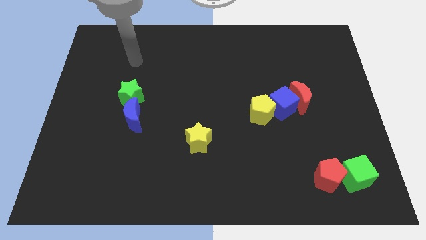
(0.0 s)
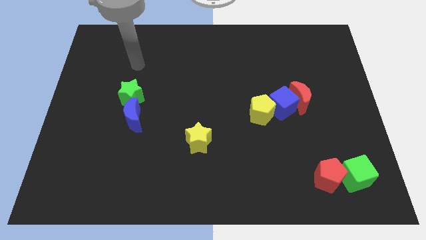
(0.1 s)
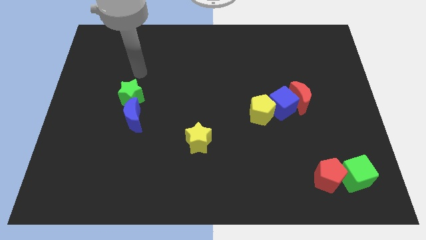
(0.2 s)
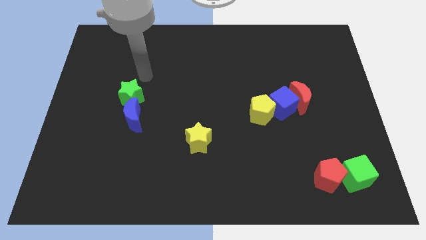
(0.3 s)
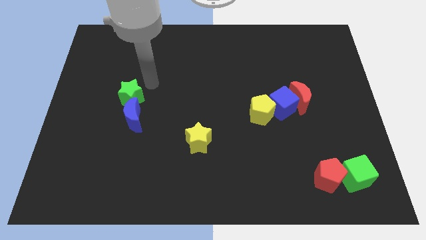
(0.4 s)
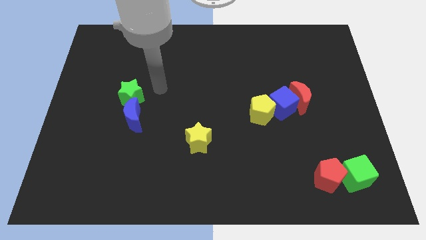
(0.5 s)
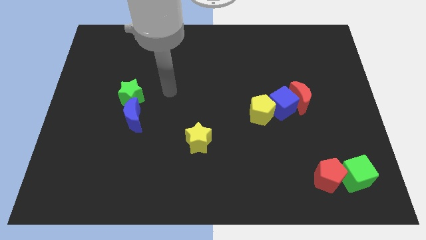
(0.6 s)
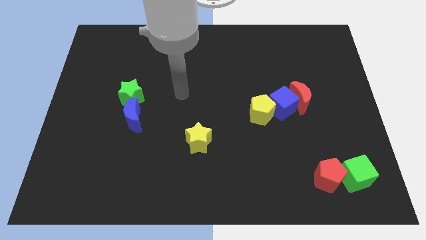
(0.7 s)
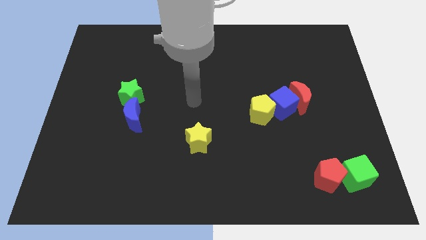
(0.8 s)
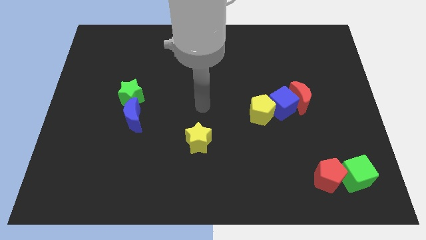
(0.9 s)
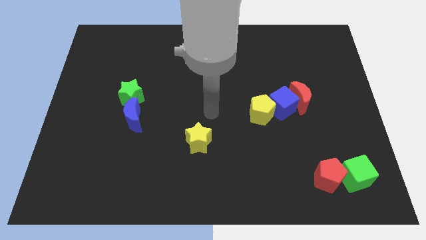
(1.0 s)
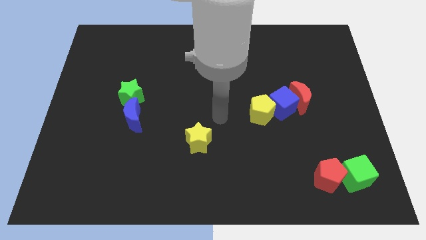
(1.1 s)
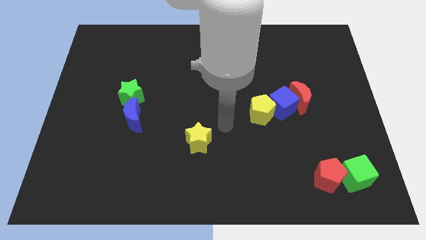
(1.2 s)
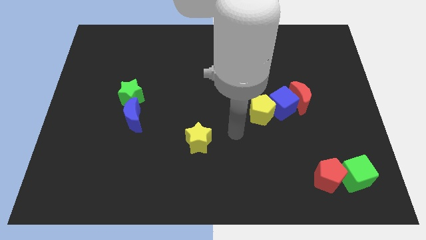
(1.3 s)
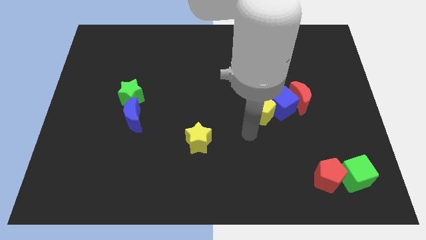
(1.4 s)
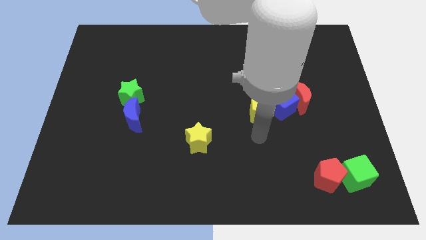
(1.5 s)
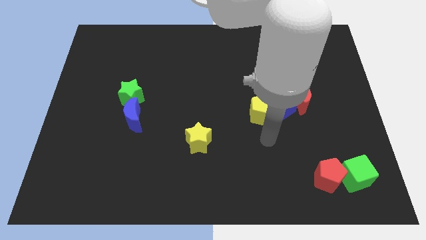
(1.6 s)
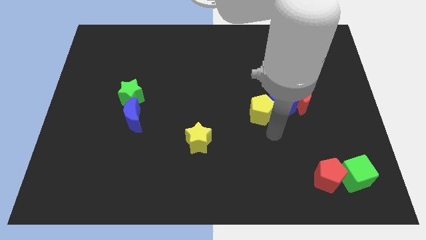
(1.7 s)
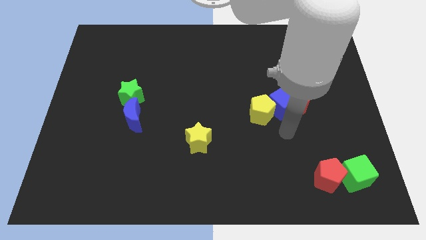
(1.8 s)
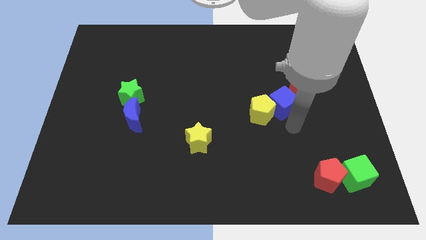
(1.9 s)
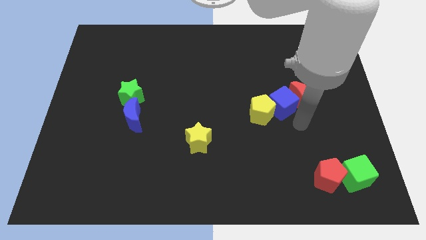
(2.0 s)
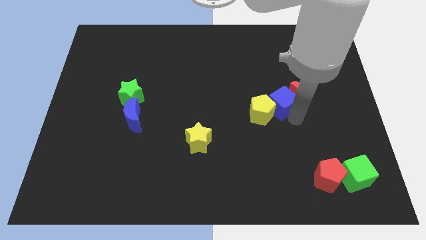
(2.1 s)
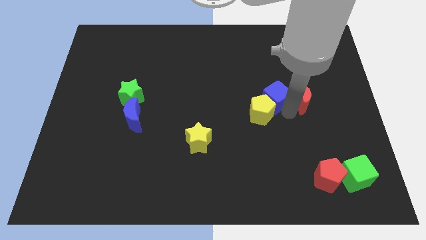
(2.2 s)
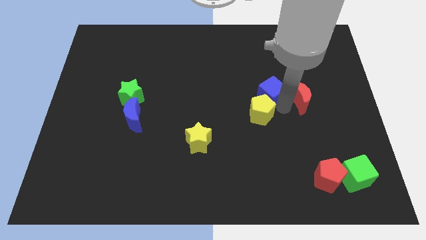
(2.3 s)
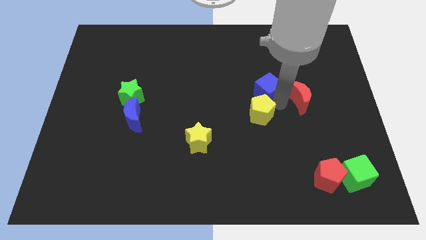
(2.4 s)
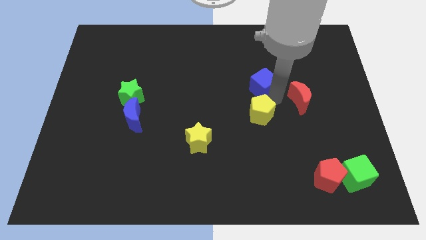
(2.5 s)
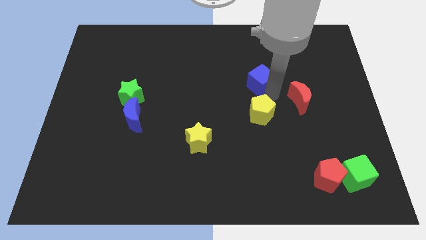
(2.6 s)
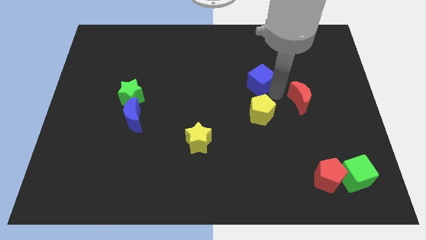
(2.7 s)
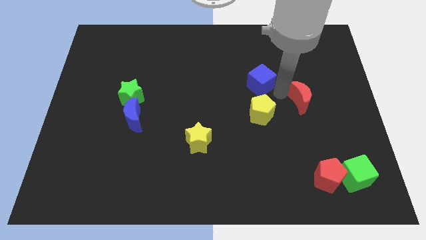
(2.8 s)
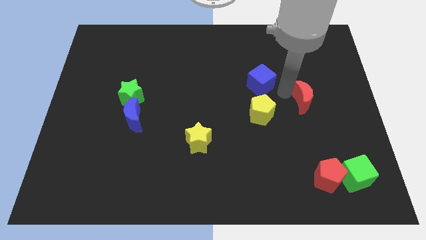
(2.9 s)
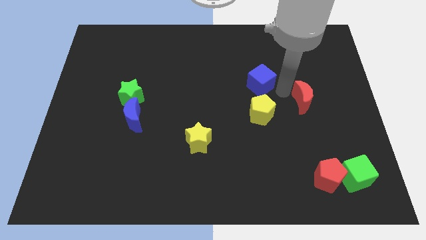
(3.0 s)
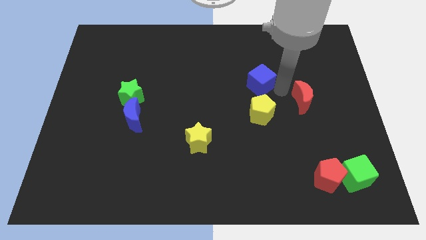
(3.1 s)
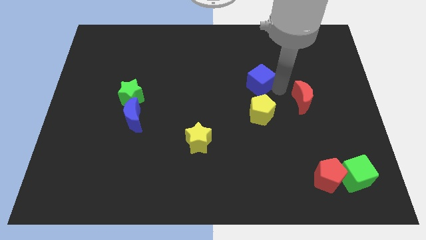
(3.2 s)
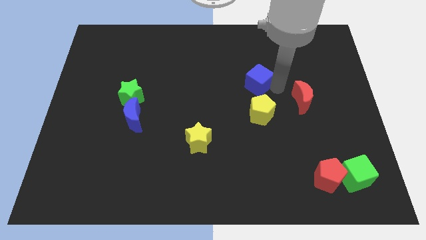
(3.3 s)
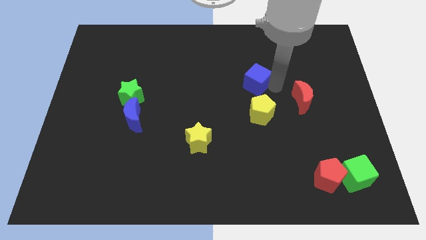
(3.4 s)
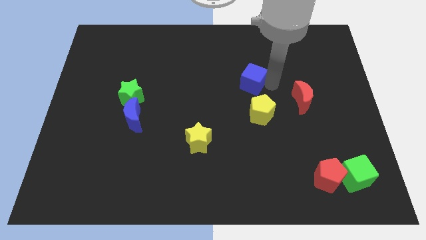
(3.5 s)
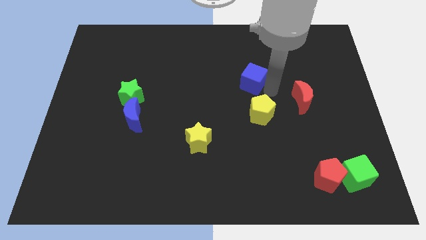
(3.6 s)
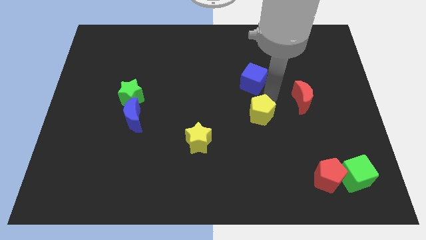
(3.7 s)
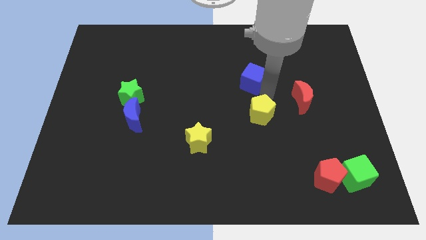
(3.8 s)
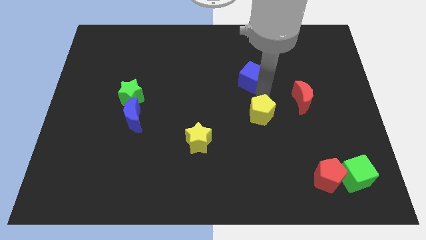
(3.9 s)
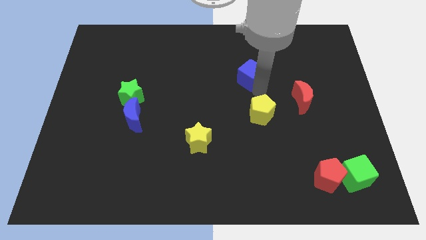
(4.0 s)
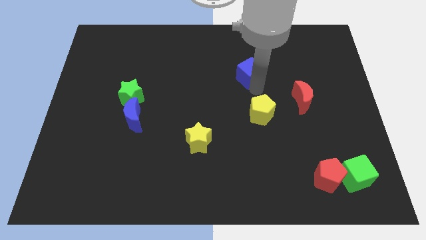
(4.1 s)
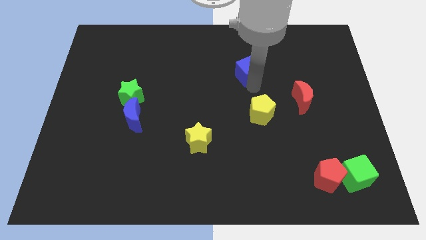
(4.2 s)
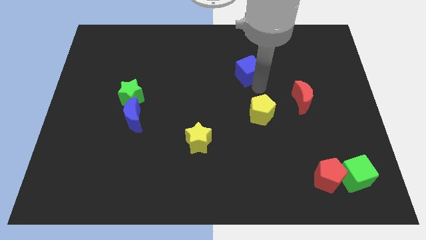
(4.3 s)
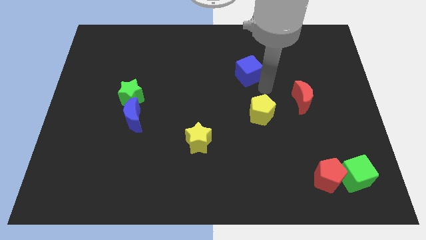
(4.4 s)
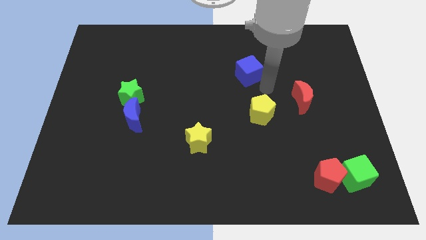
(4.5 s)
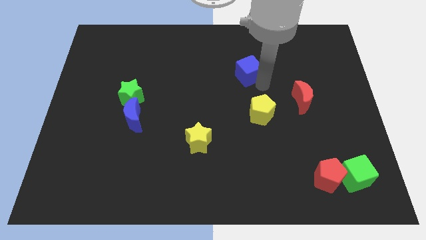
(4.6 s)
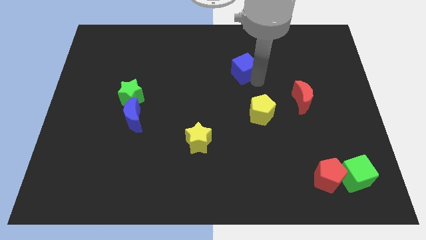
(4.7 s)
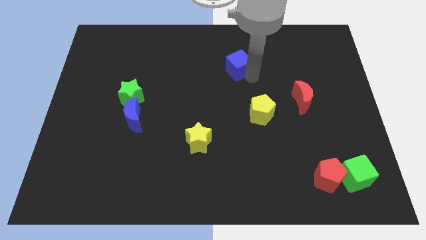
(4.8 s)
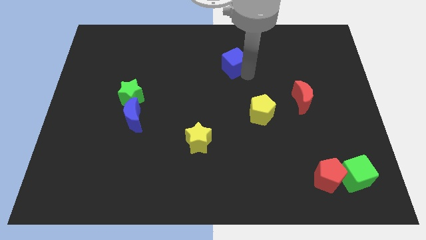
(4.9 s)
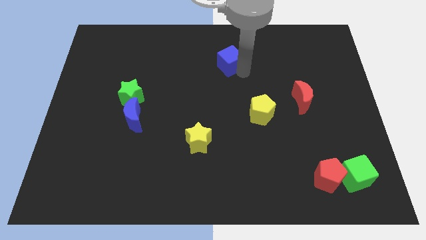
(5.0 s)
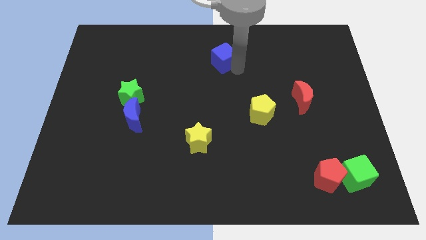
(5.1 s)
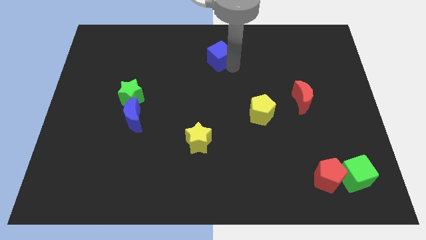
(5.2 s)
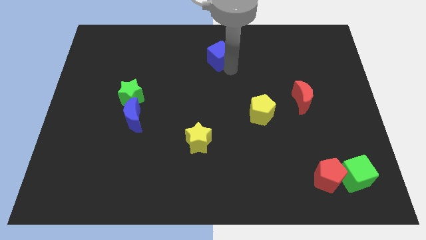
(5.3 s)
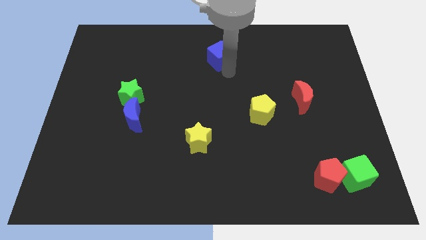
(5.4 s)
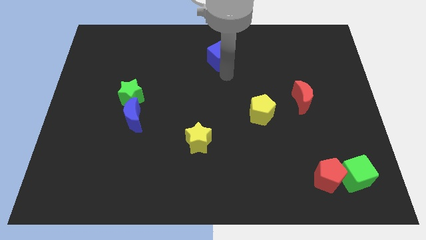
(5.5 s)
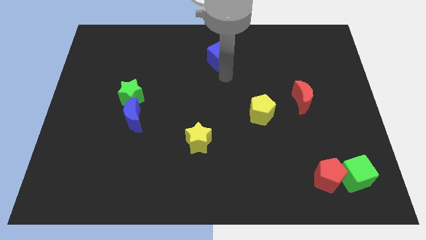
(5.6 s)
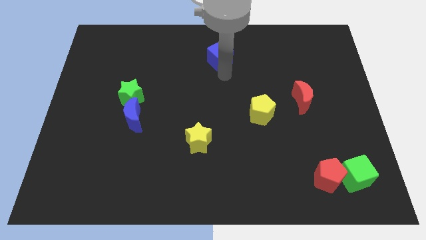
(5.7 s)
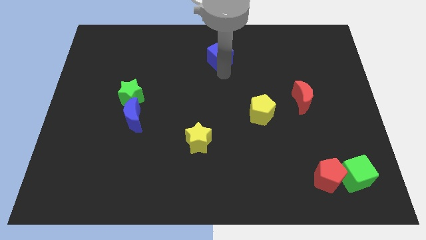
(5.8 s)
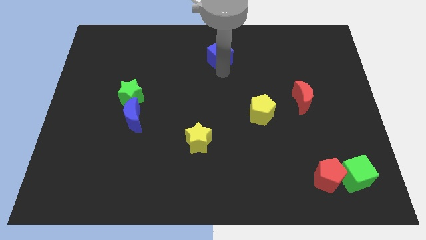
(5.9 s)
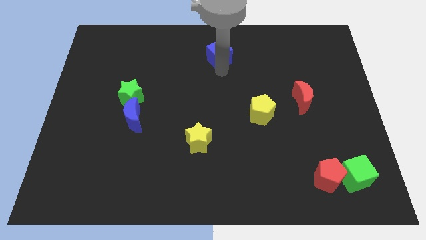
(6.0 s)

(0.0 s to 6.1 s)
push the blue cube to the top

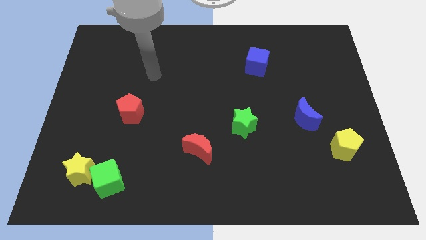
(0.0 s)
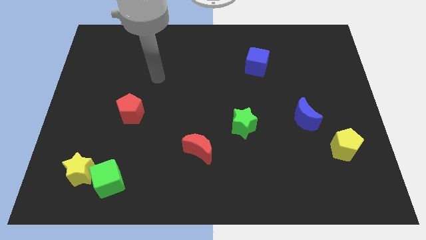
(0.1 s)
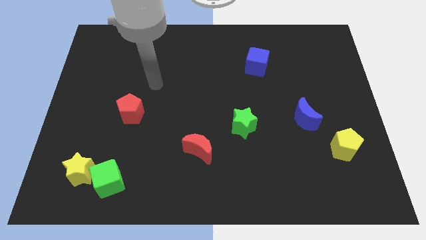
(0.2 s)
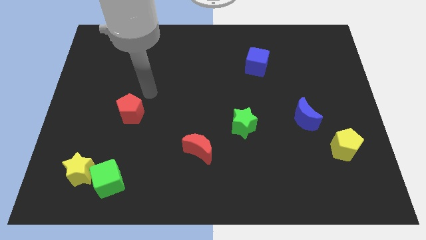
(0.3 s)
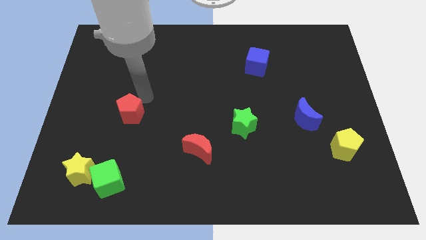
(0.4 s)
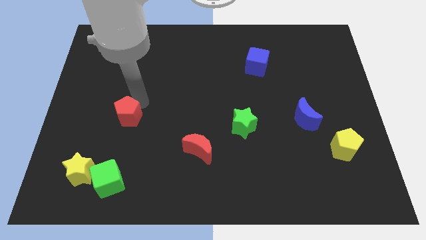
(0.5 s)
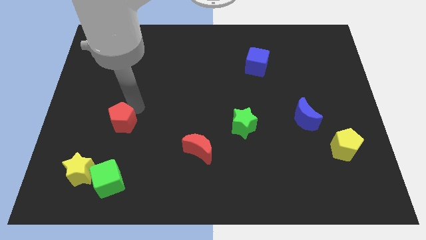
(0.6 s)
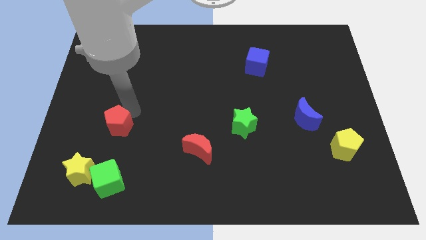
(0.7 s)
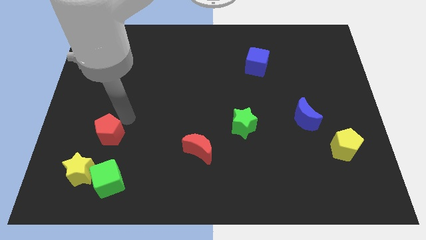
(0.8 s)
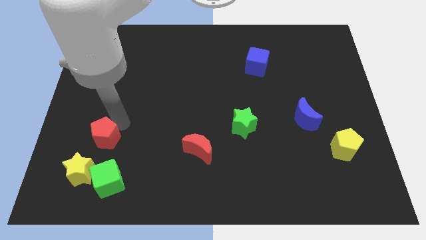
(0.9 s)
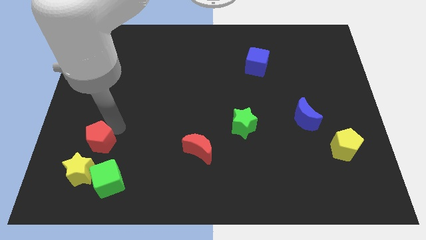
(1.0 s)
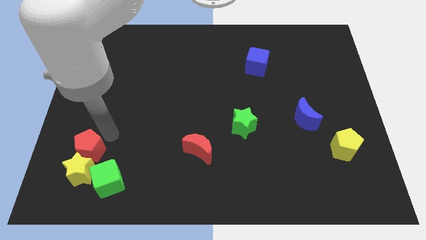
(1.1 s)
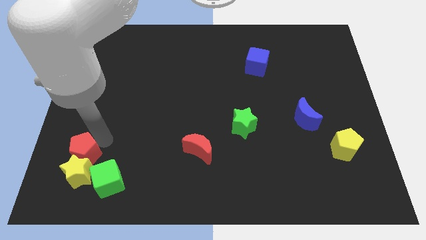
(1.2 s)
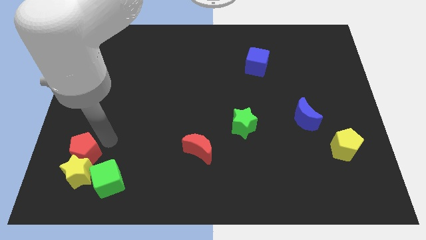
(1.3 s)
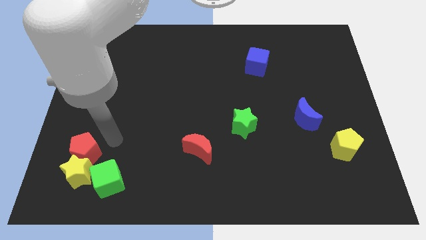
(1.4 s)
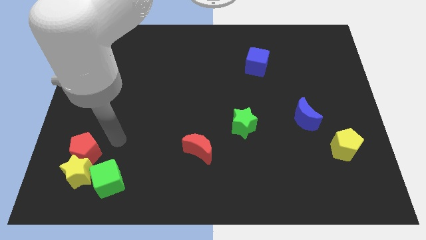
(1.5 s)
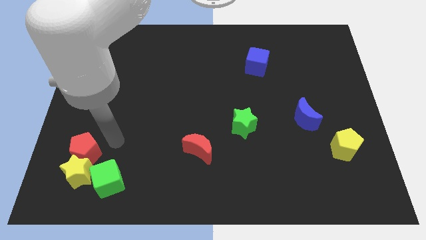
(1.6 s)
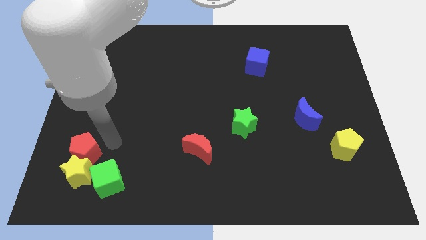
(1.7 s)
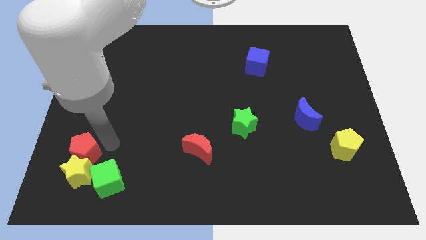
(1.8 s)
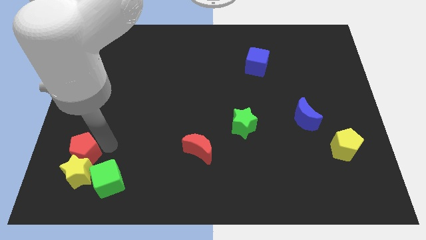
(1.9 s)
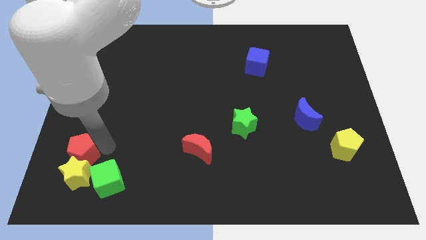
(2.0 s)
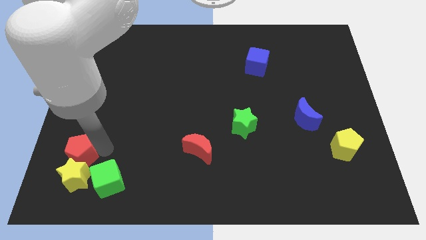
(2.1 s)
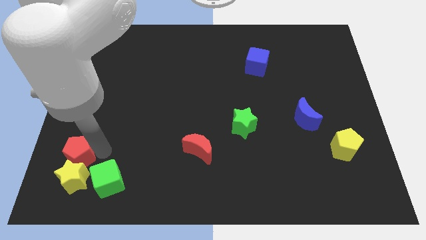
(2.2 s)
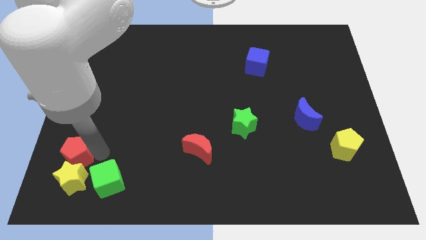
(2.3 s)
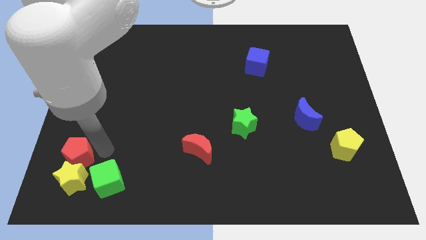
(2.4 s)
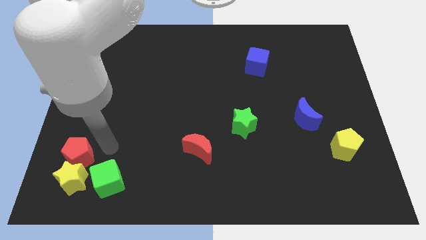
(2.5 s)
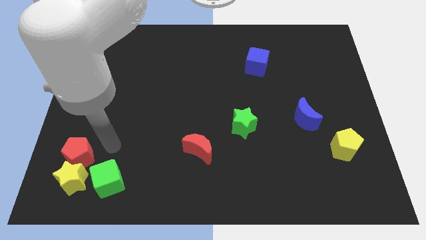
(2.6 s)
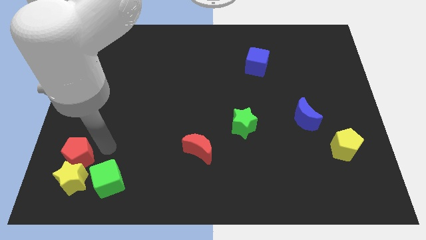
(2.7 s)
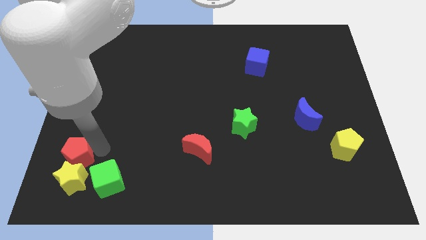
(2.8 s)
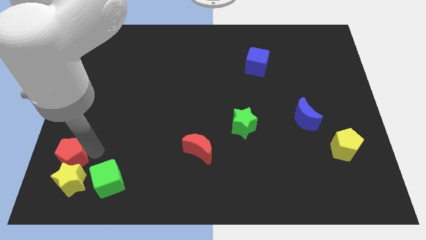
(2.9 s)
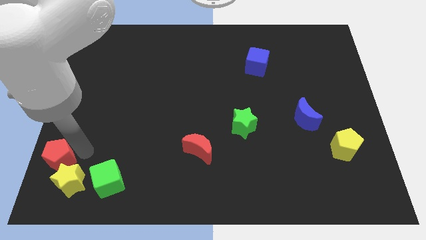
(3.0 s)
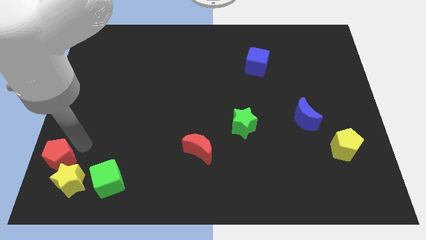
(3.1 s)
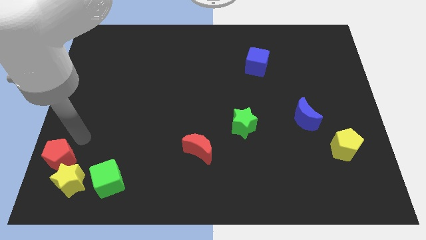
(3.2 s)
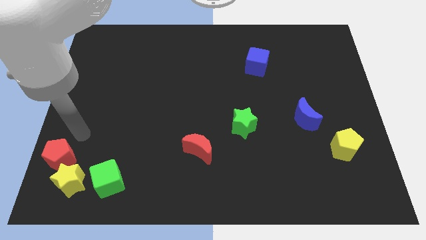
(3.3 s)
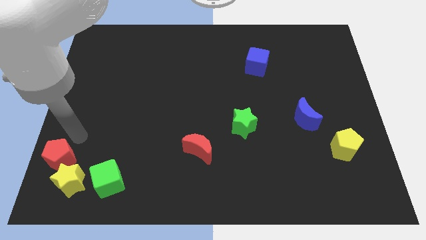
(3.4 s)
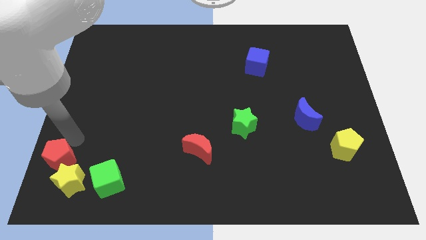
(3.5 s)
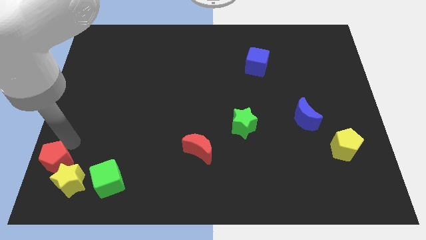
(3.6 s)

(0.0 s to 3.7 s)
put the red pentagon to the lower left corner
